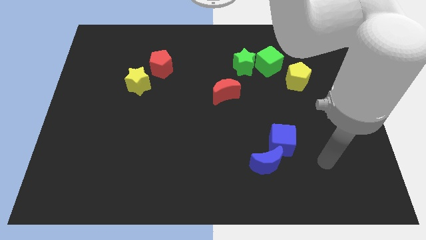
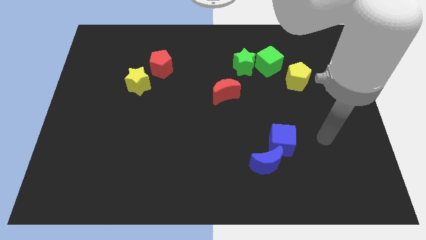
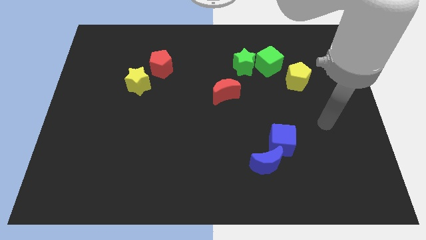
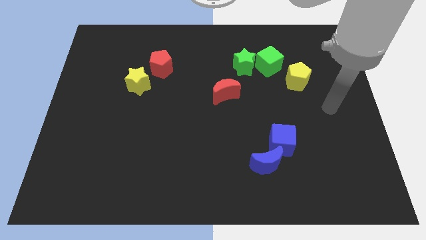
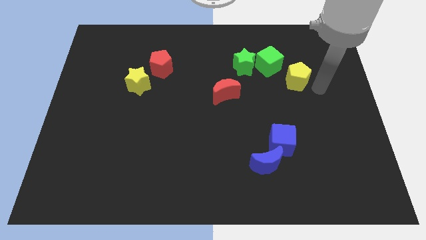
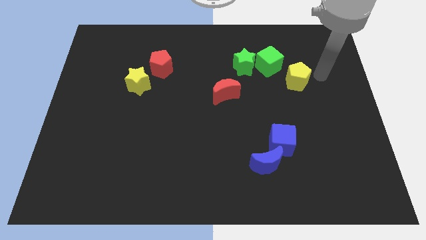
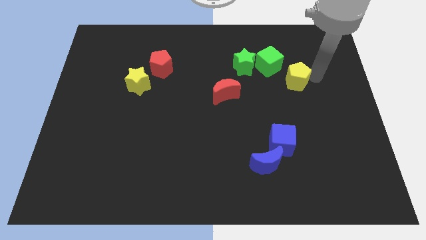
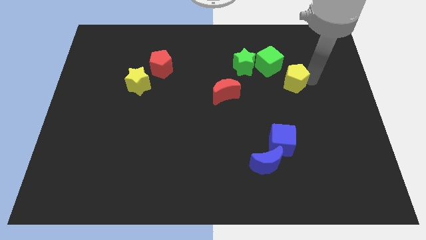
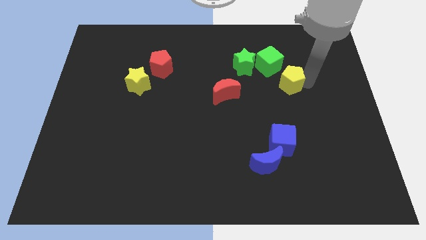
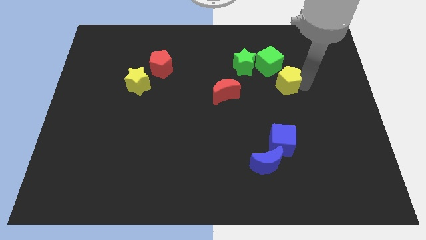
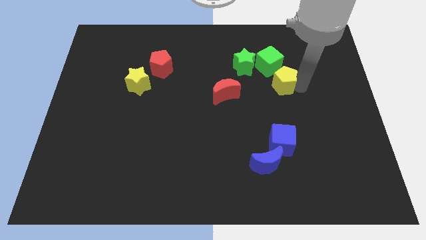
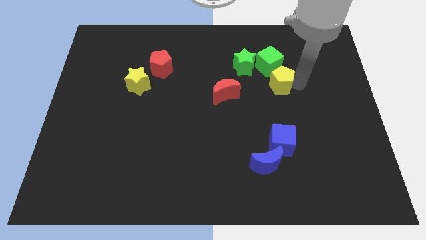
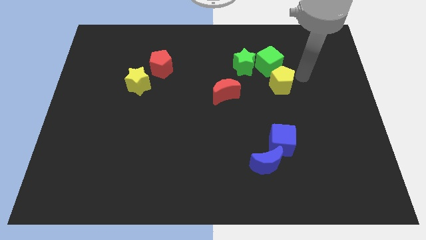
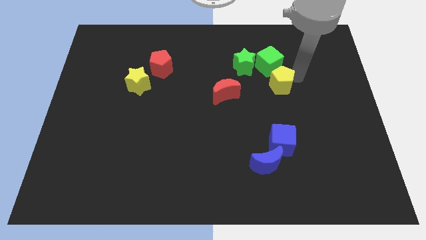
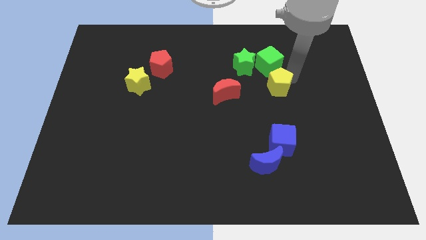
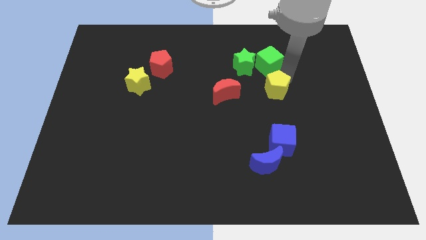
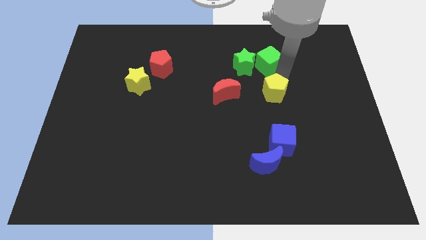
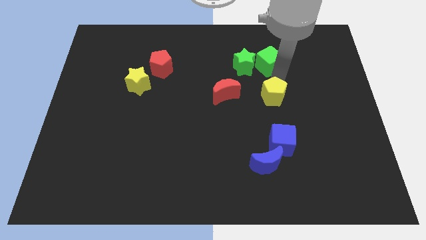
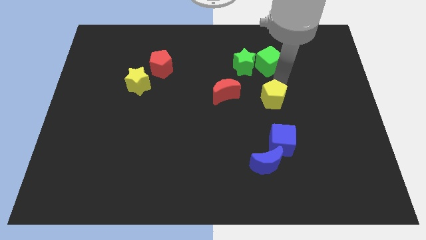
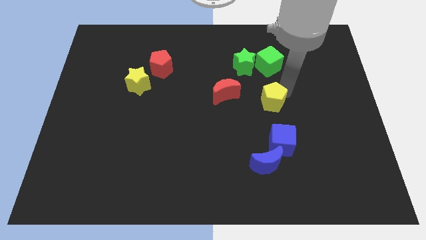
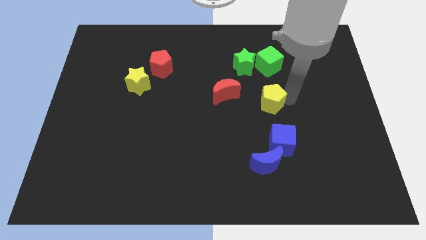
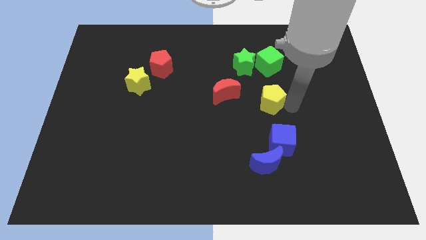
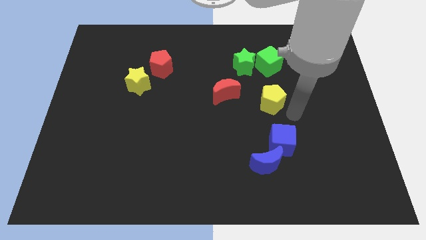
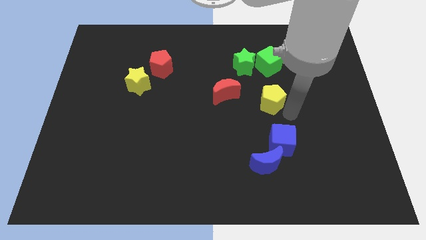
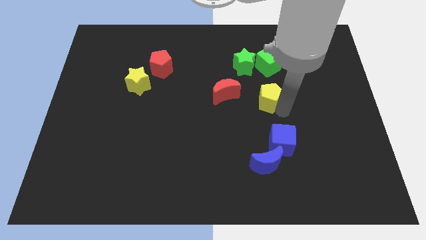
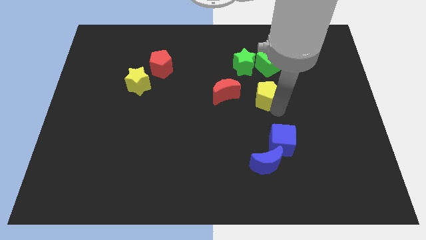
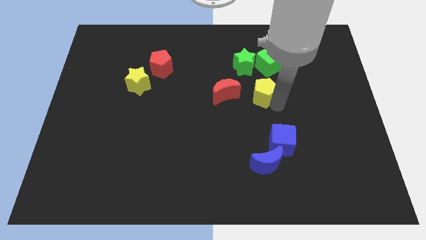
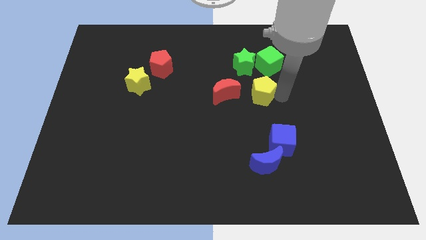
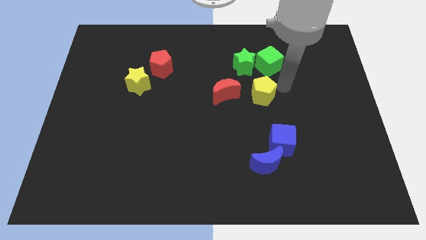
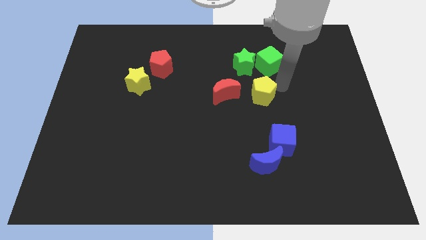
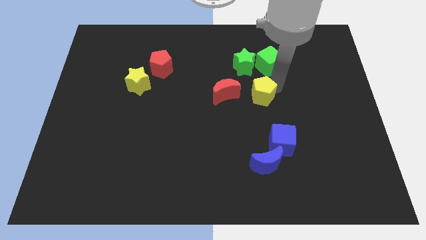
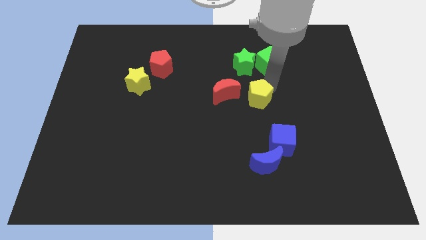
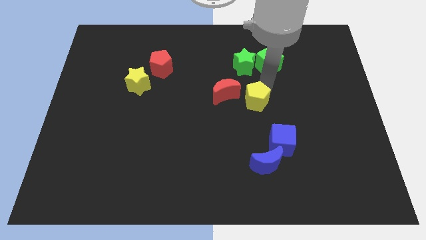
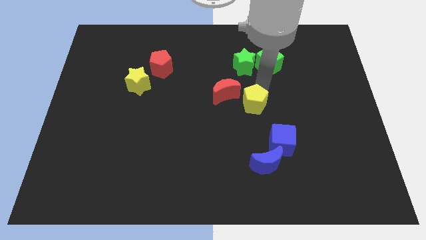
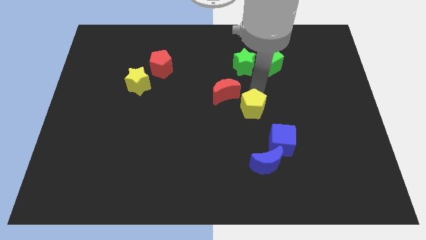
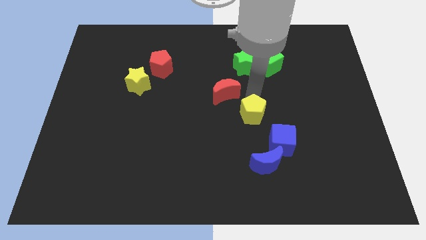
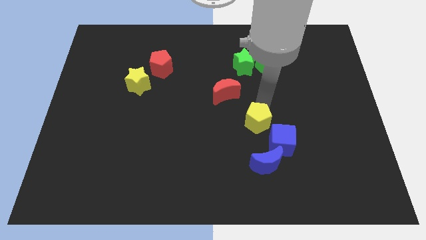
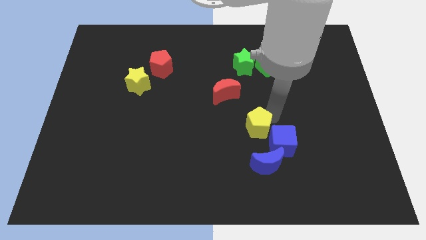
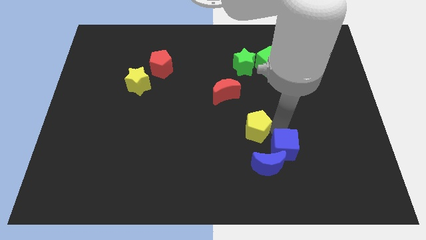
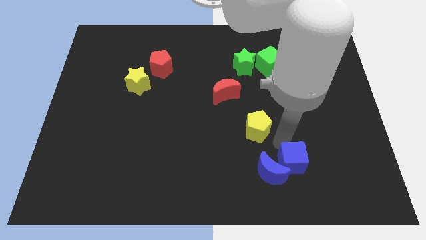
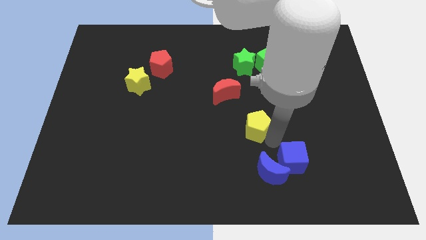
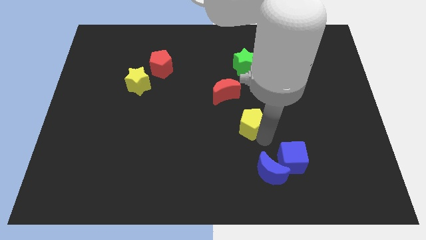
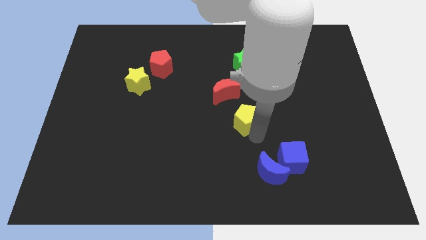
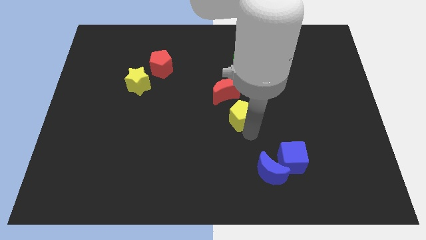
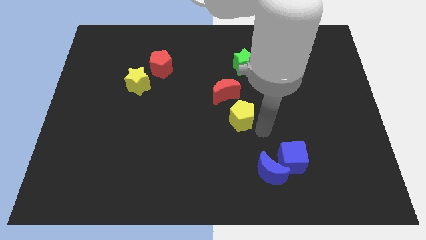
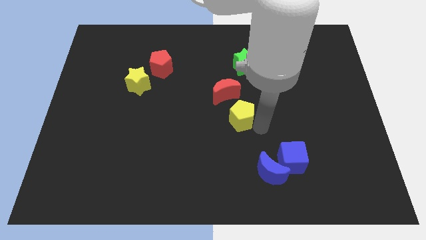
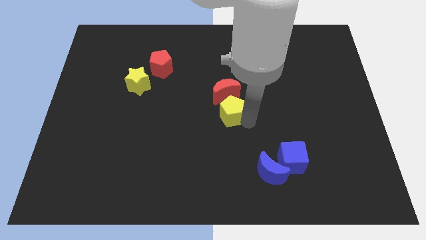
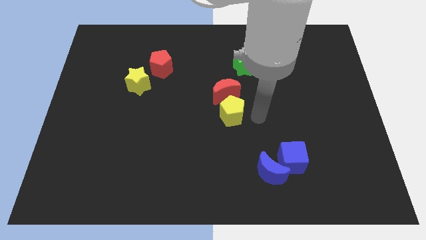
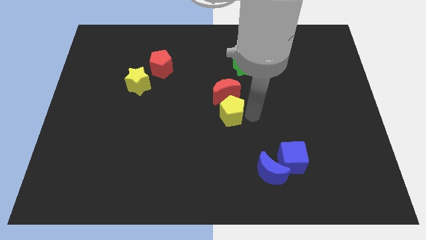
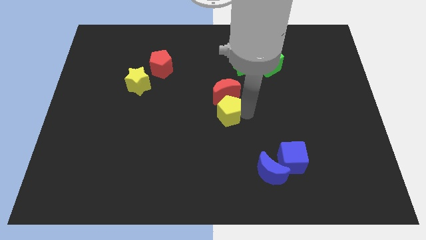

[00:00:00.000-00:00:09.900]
put the yellow pentagon to the bottom left of the red moon

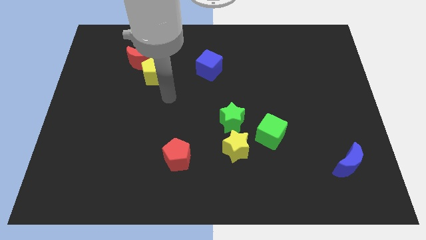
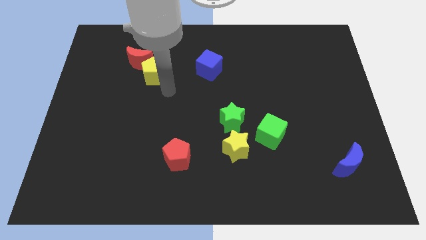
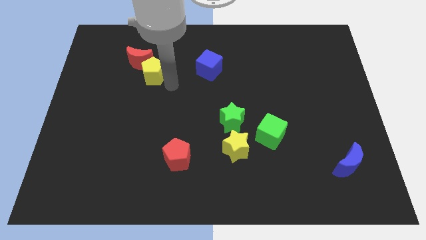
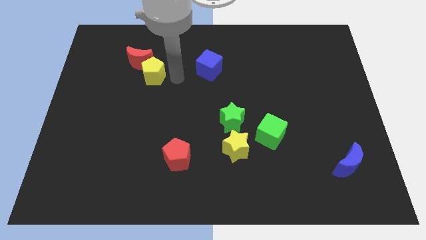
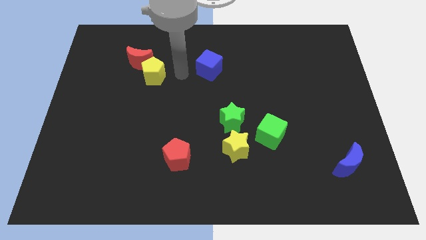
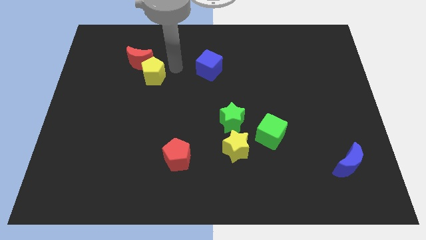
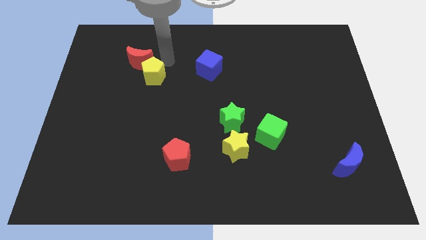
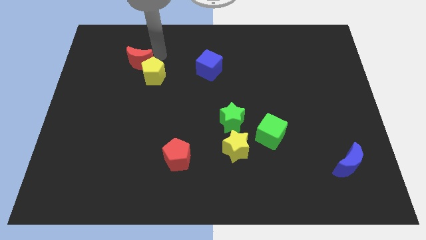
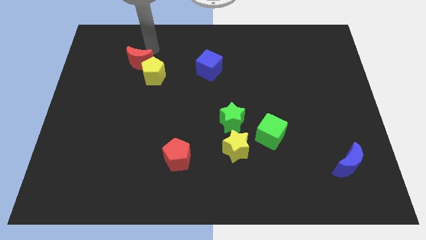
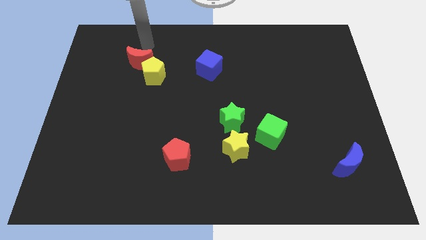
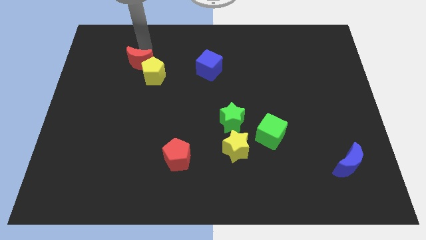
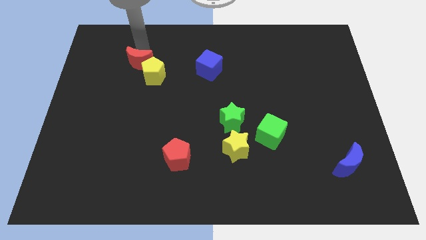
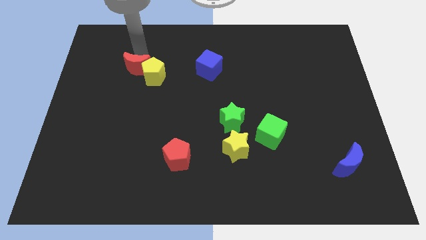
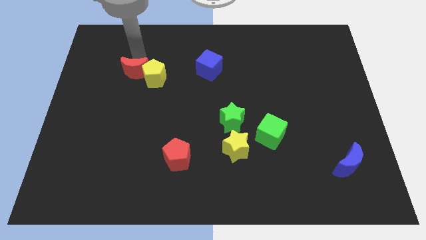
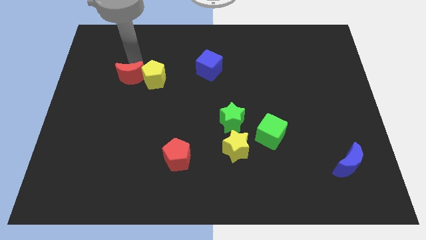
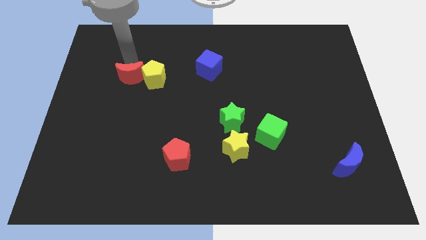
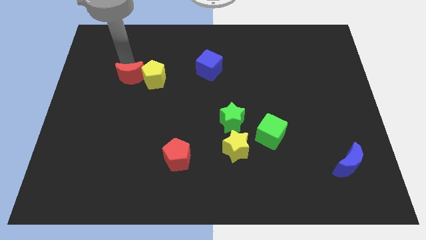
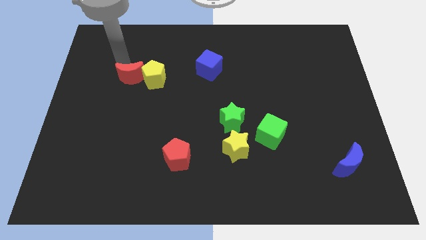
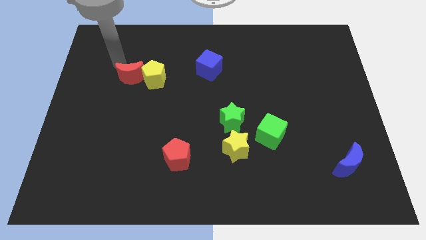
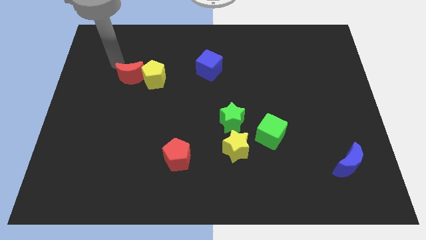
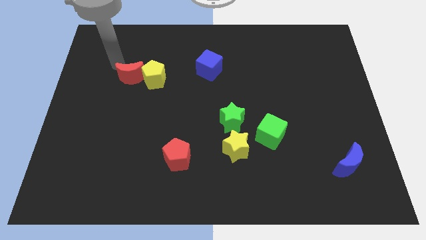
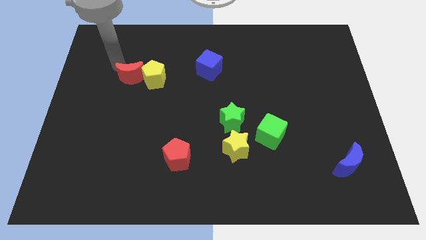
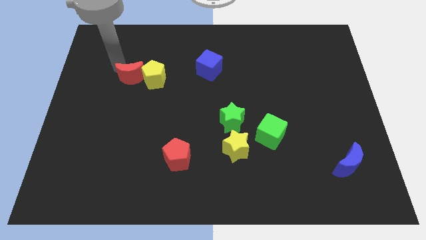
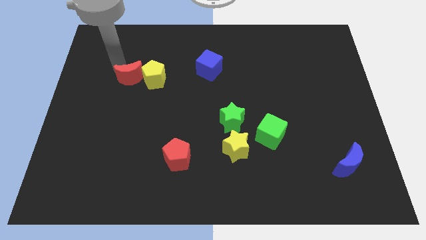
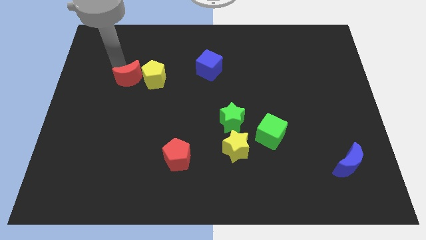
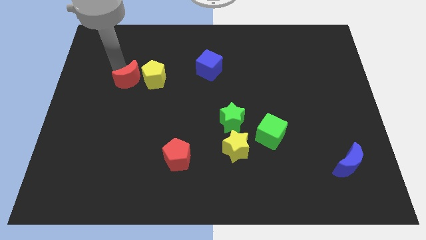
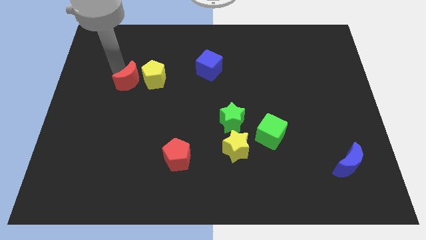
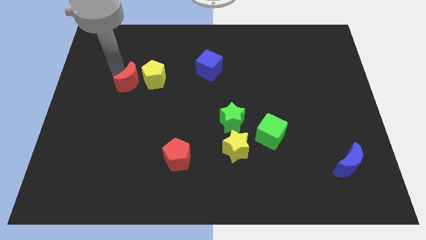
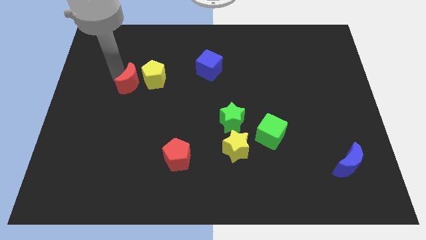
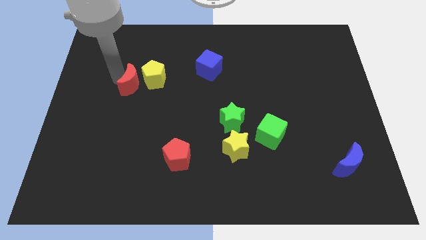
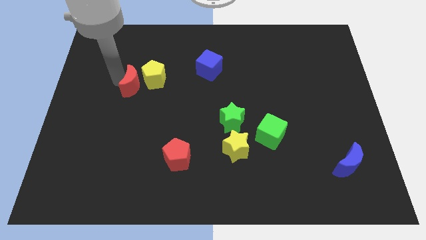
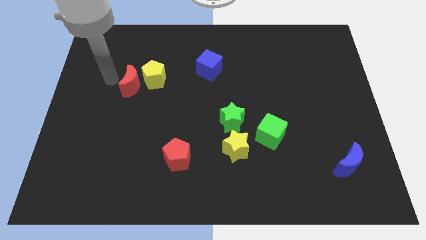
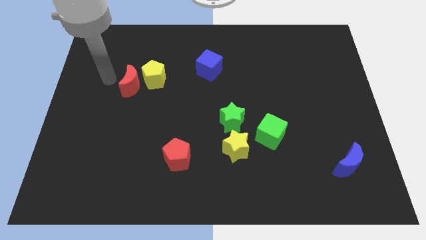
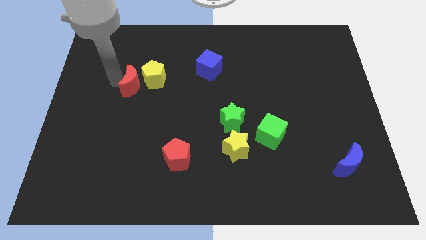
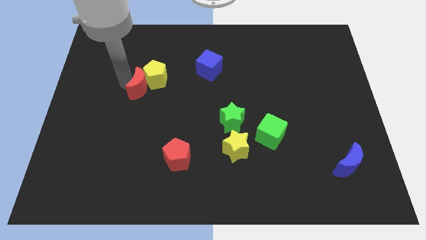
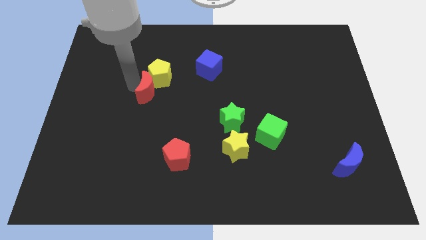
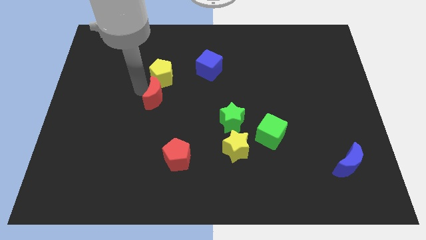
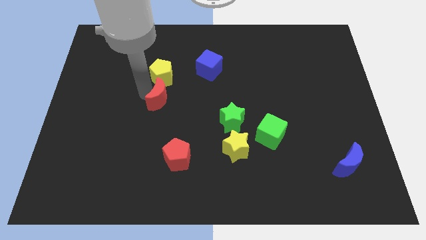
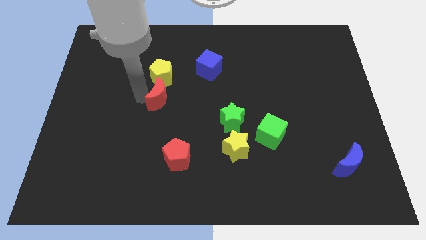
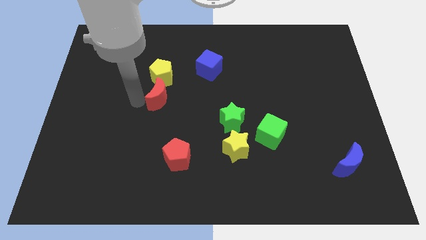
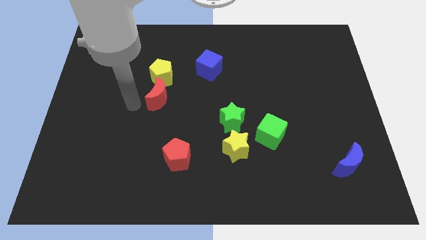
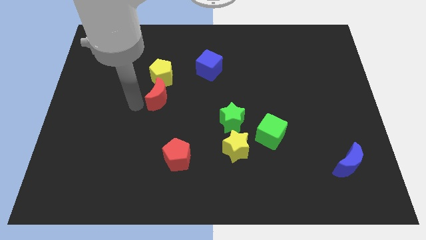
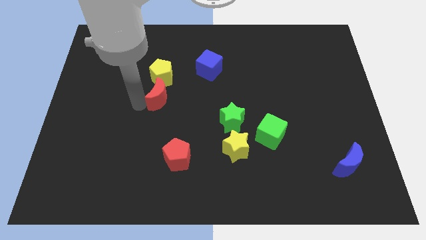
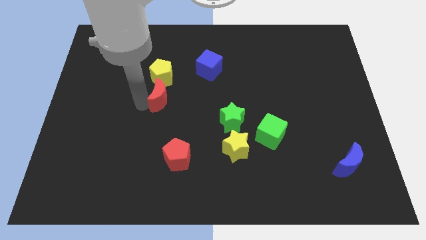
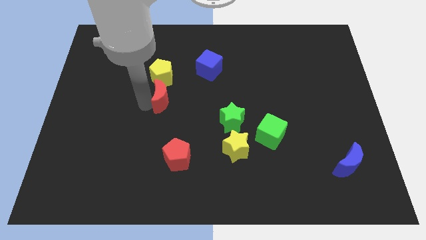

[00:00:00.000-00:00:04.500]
move the red moon diagonally down and to the right of the yellow pentagon
